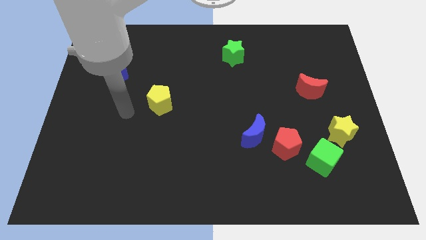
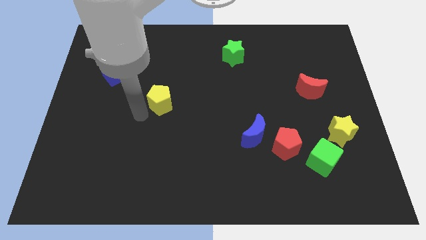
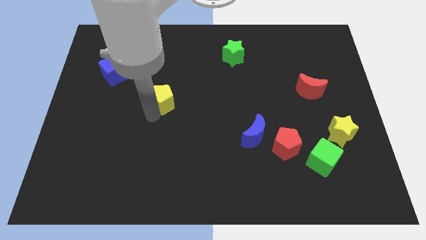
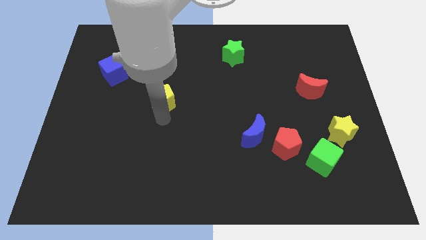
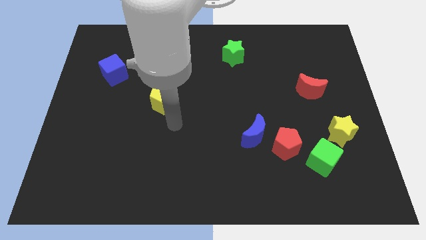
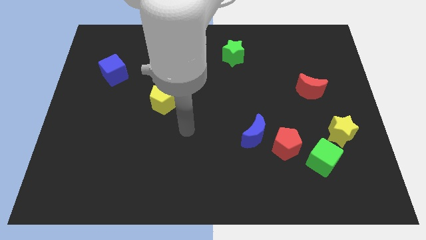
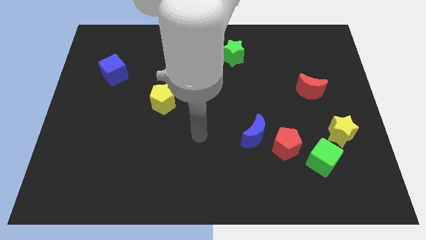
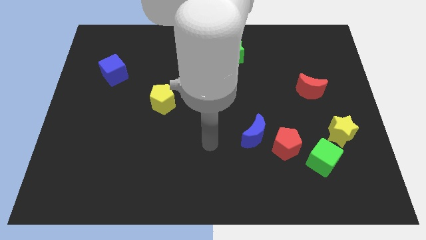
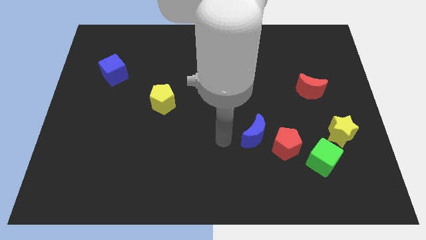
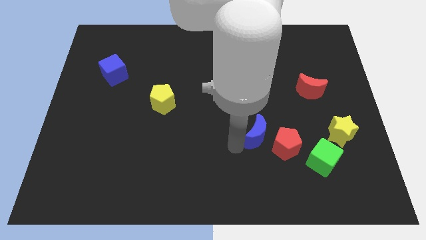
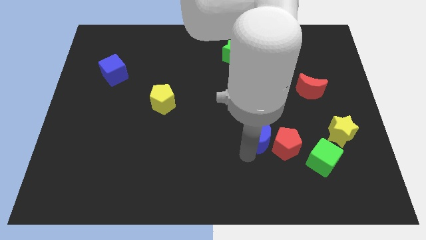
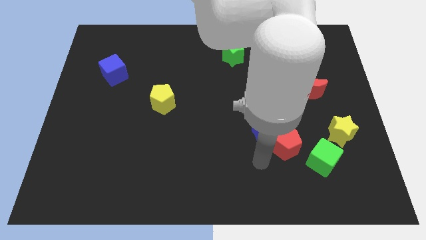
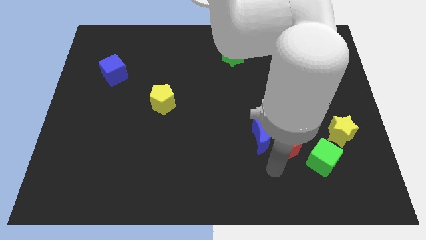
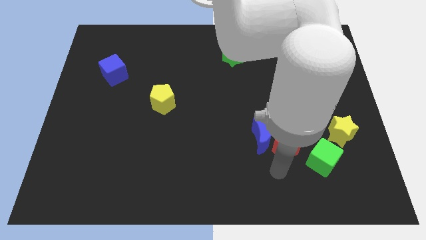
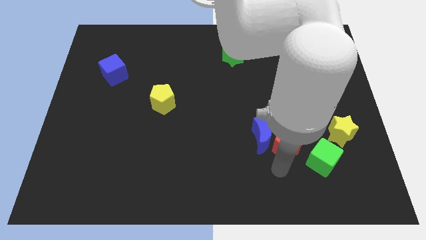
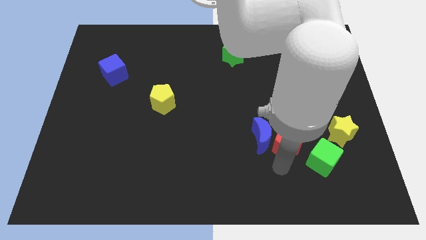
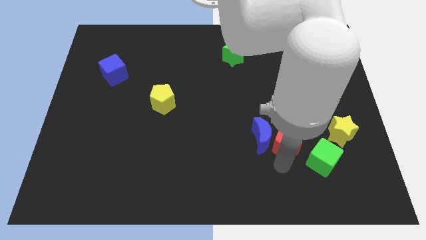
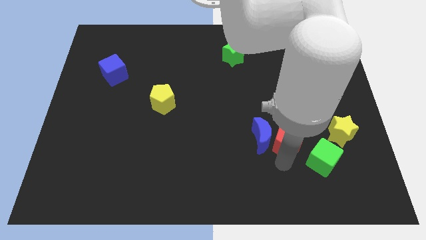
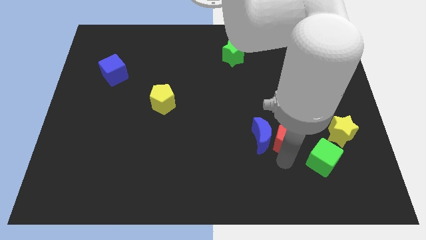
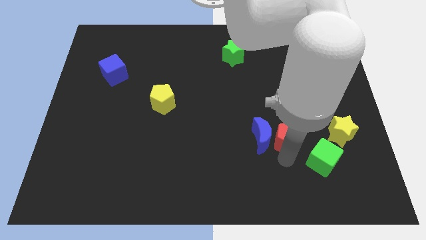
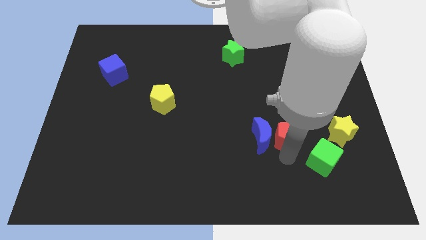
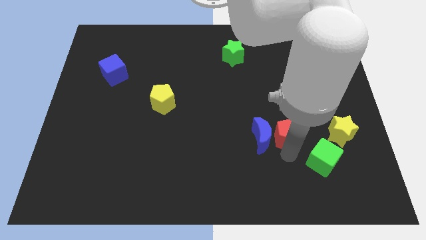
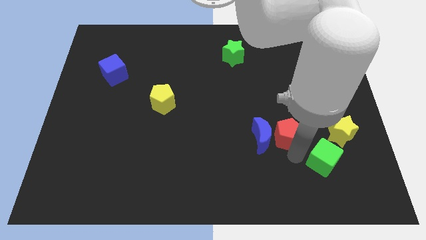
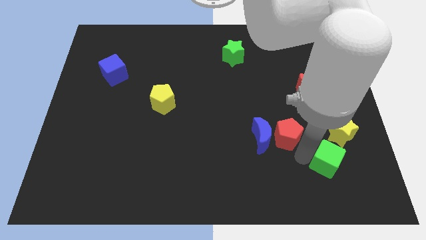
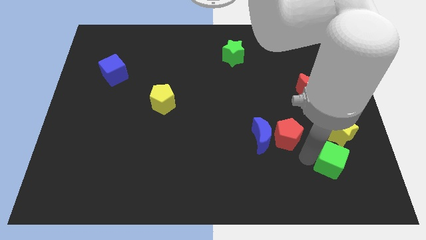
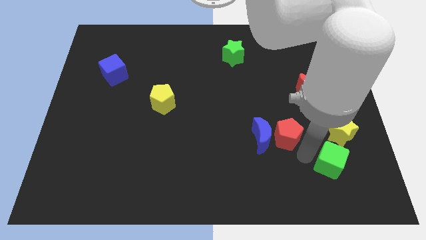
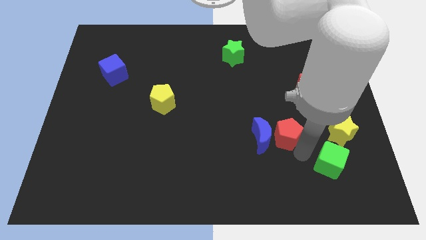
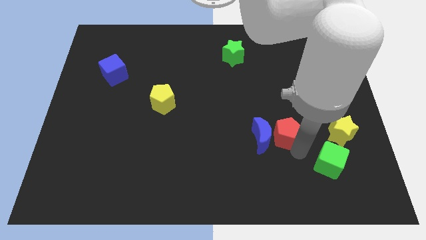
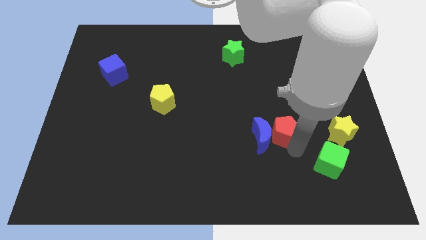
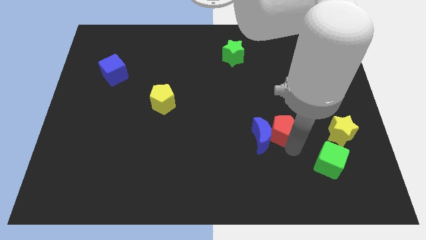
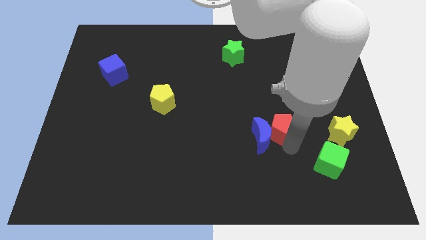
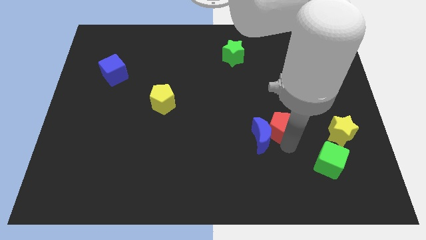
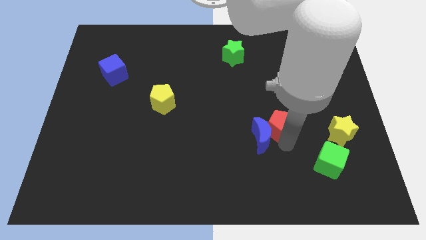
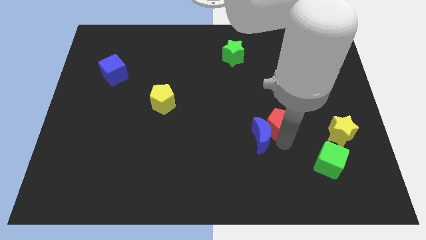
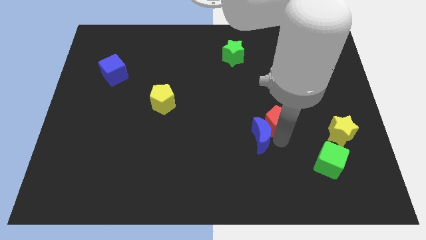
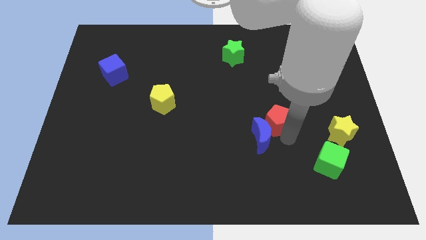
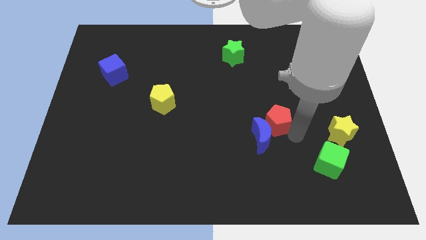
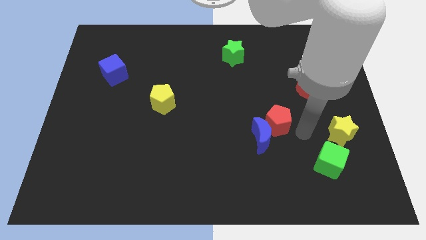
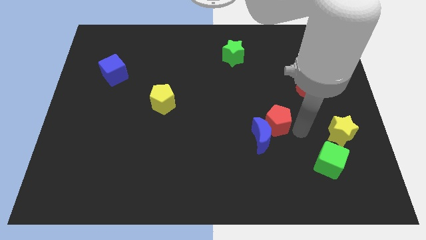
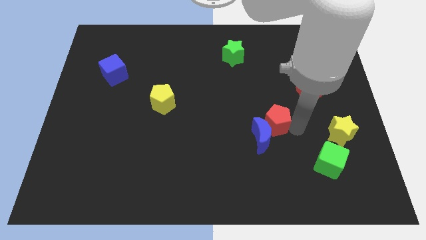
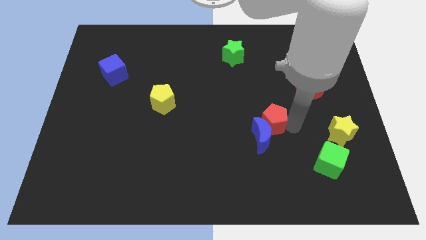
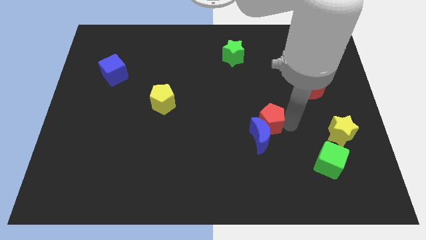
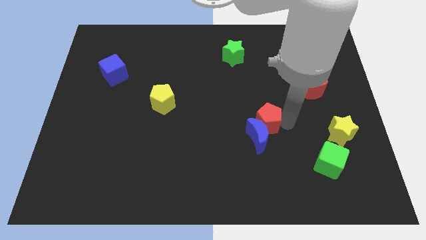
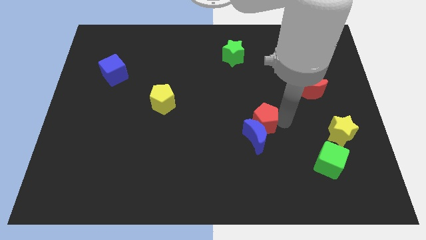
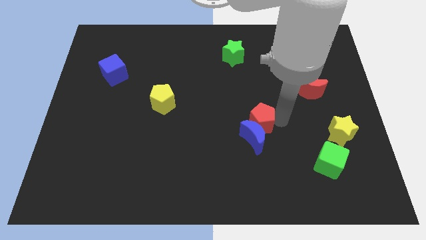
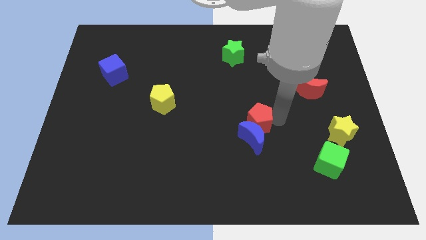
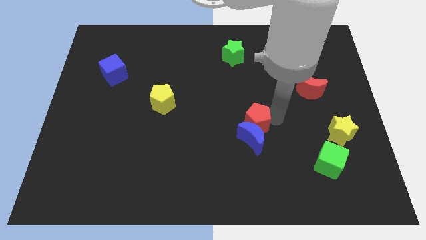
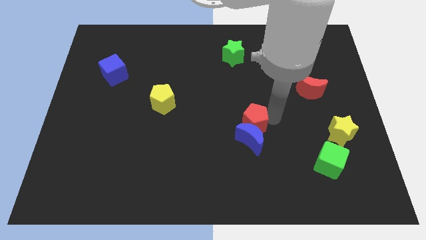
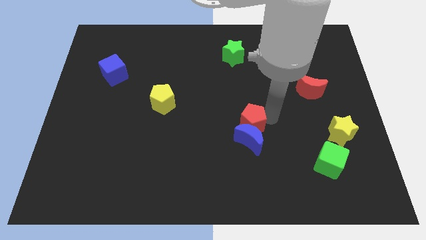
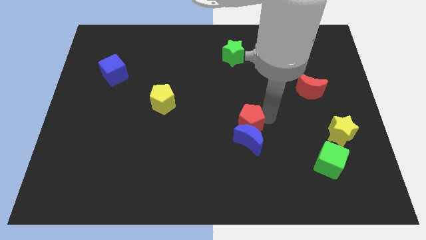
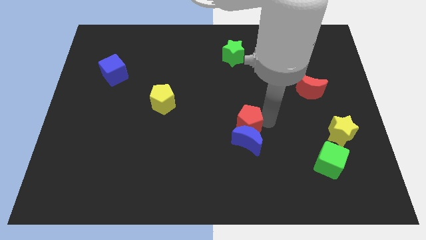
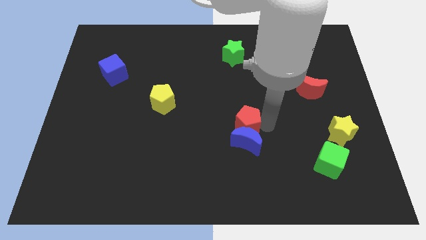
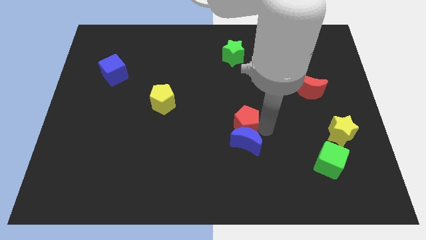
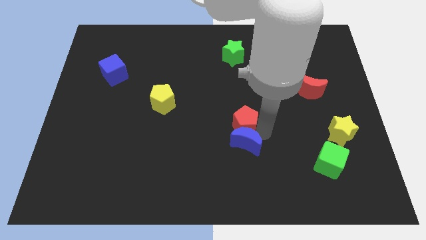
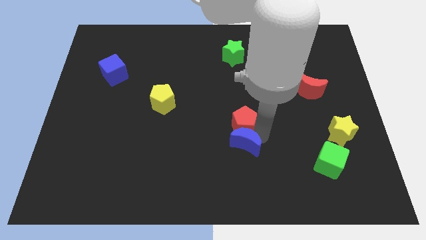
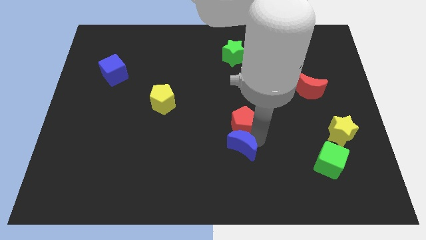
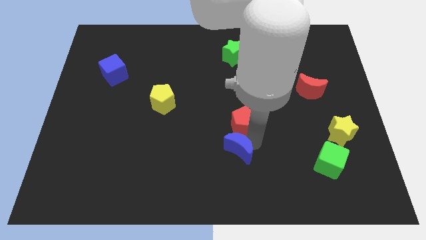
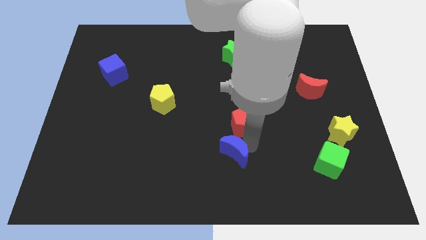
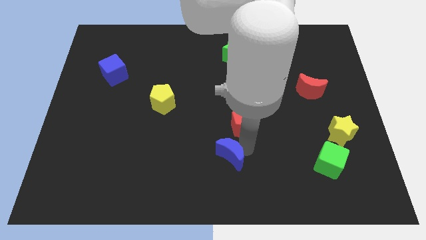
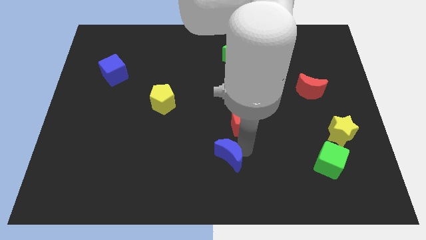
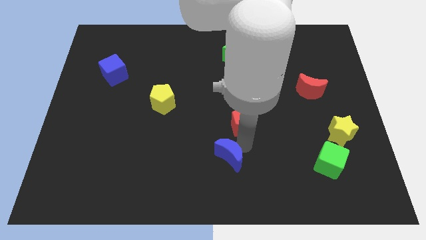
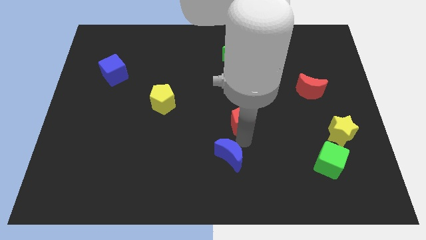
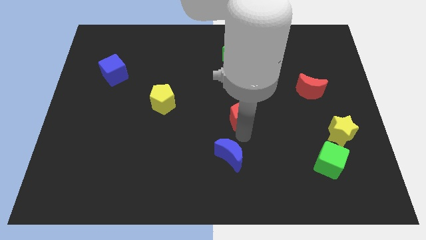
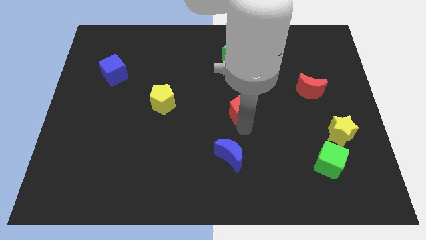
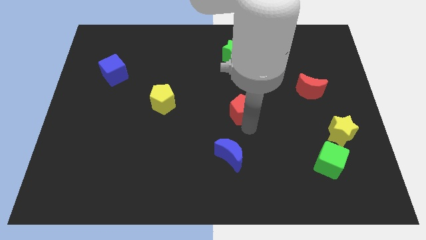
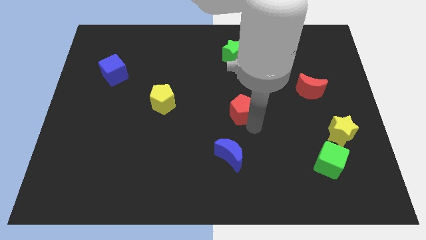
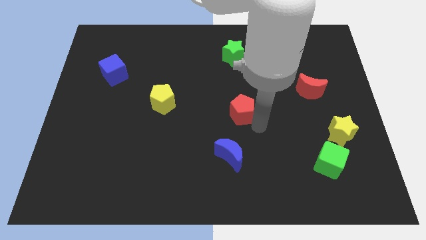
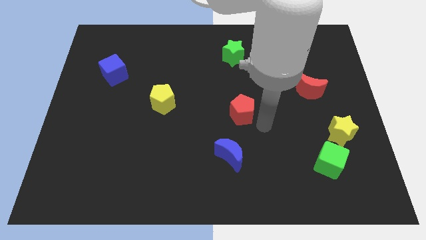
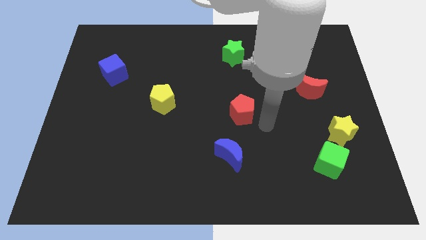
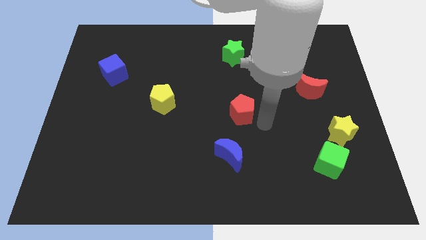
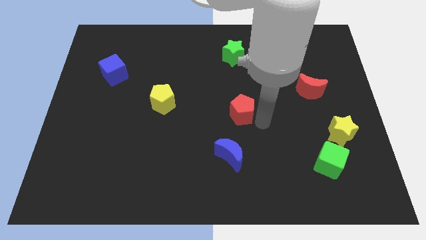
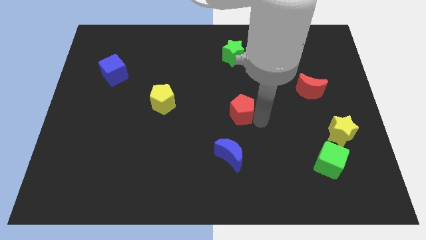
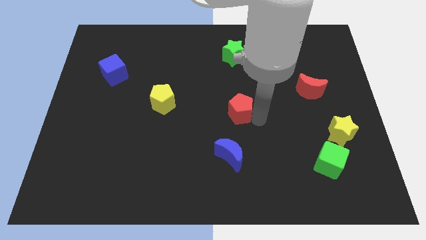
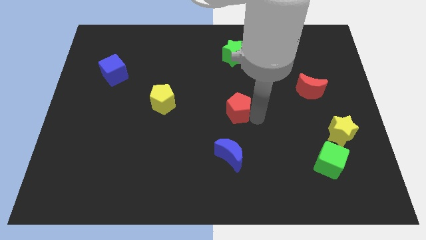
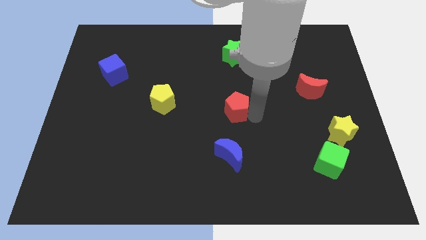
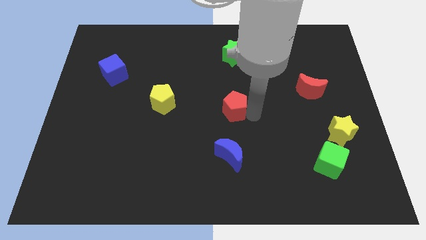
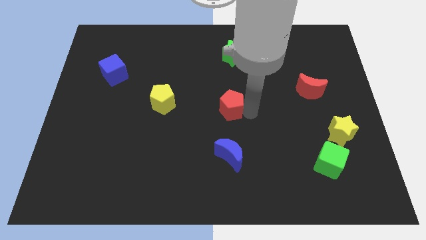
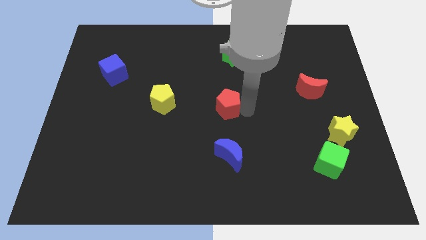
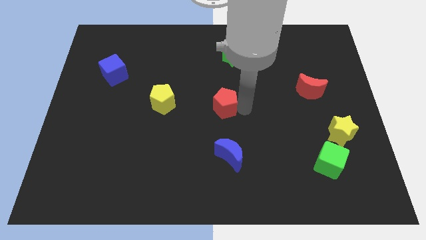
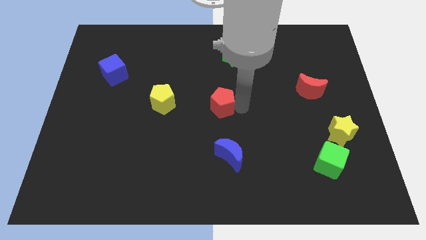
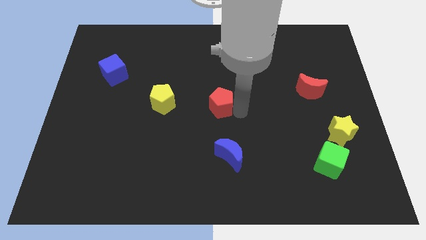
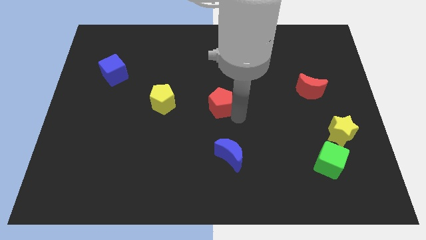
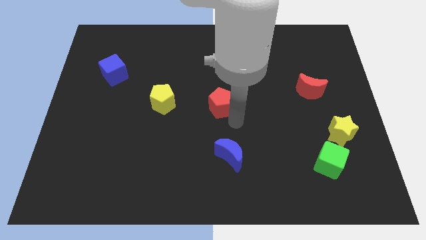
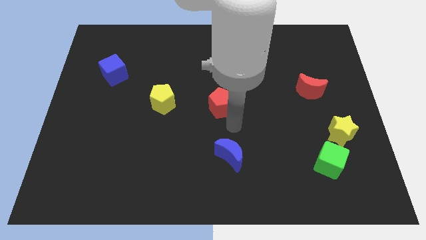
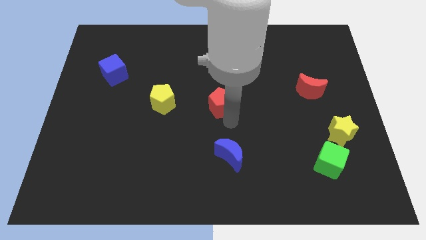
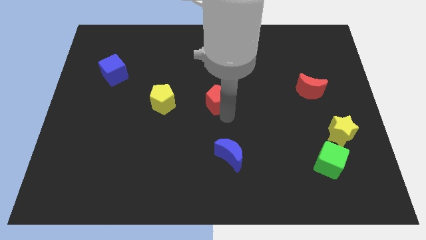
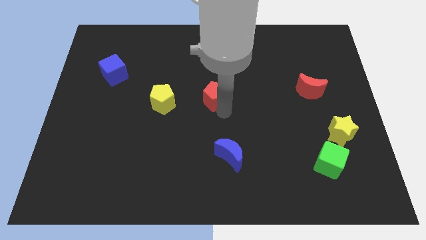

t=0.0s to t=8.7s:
move the red pentagon up and left diagonally

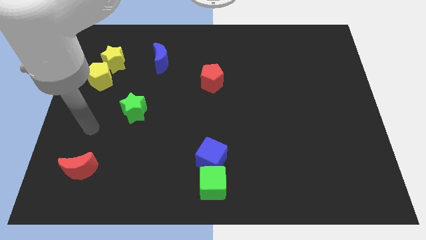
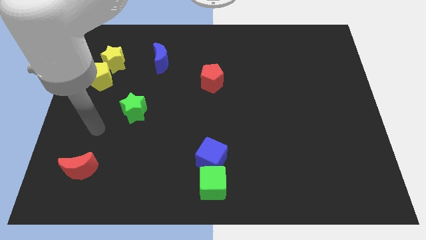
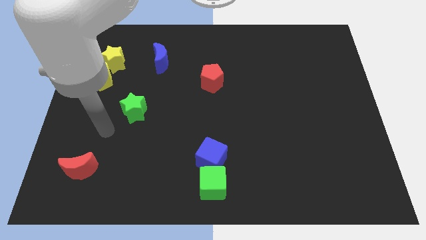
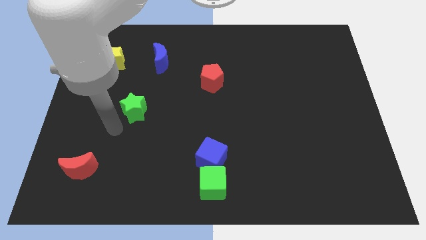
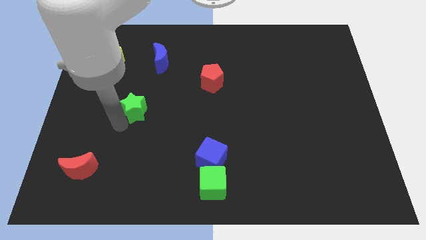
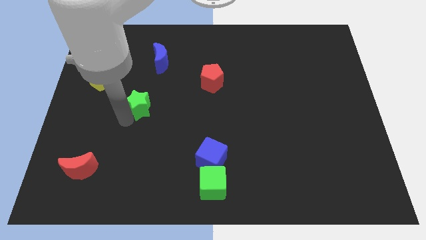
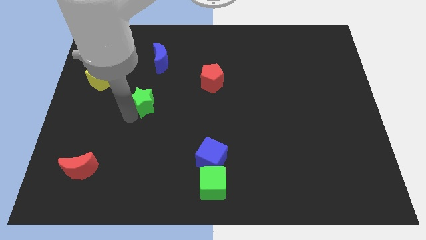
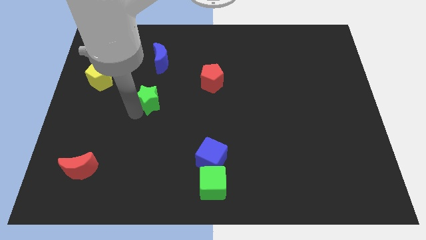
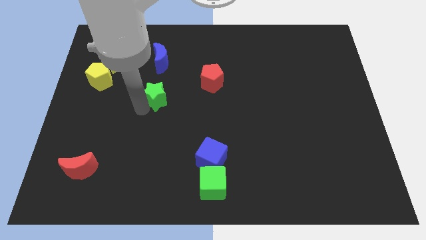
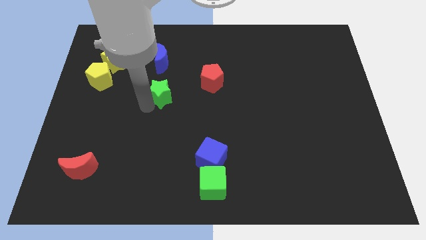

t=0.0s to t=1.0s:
move the green star a bit upwards and then to the right
